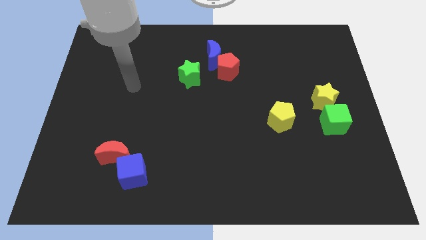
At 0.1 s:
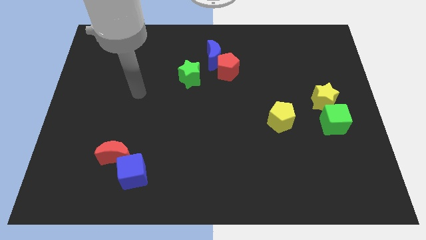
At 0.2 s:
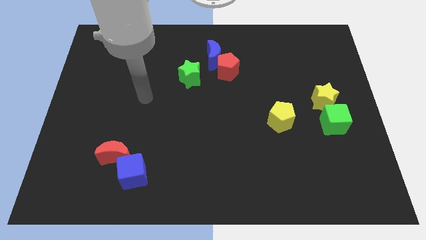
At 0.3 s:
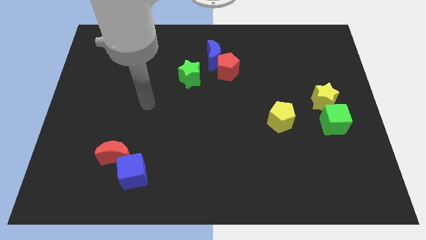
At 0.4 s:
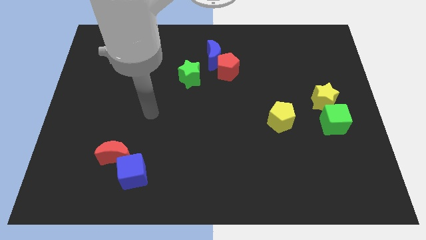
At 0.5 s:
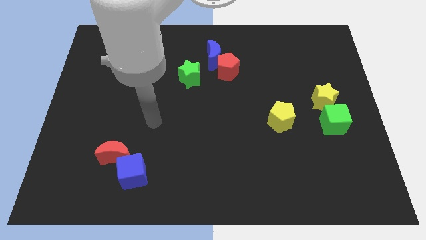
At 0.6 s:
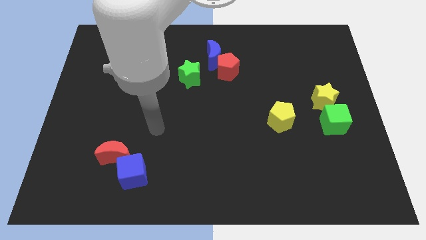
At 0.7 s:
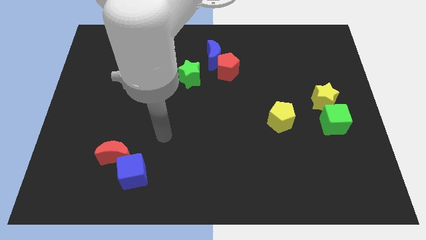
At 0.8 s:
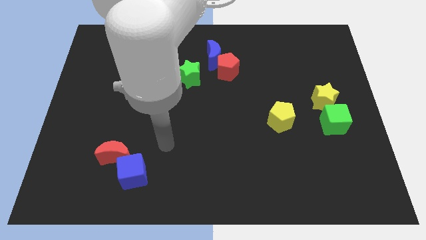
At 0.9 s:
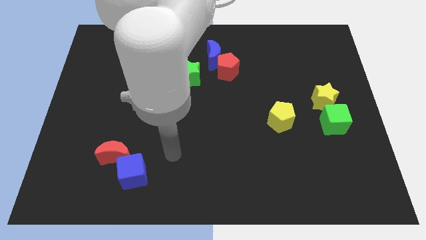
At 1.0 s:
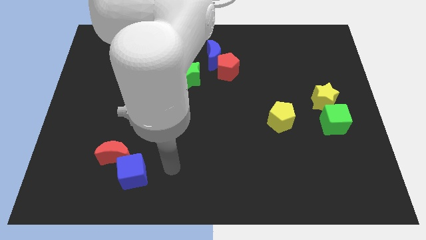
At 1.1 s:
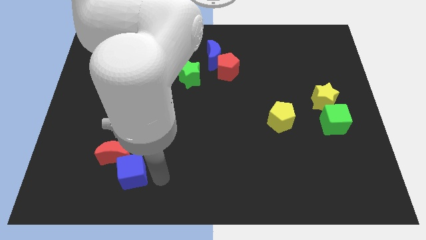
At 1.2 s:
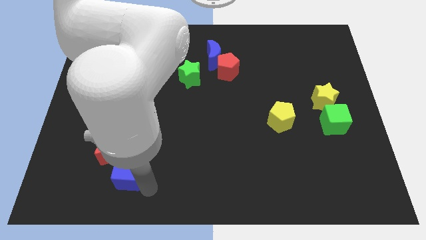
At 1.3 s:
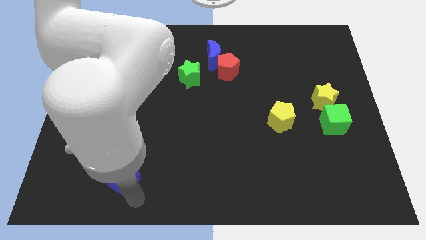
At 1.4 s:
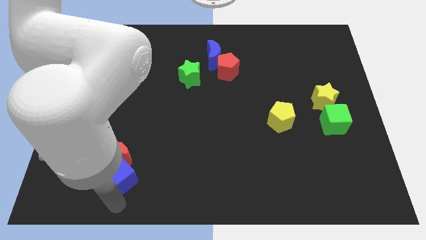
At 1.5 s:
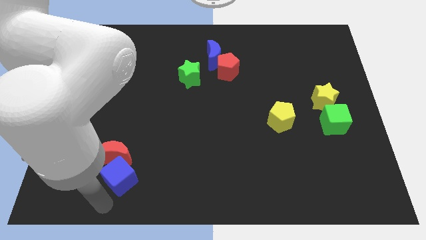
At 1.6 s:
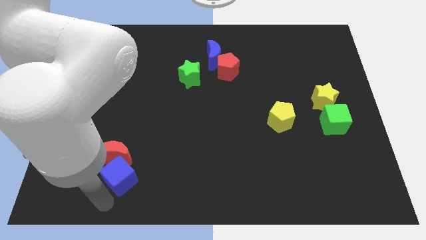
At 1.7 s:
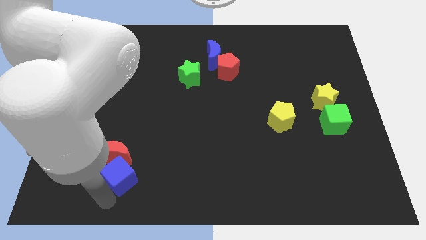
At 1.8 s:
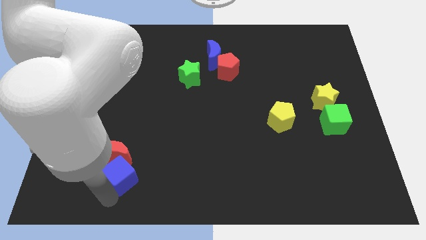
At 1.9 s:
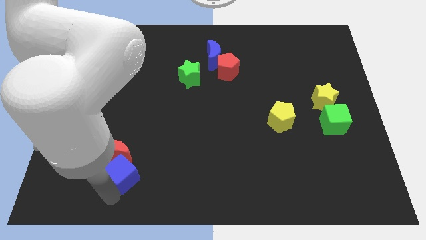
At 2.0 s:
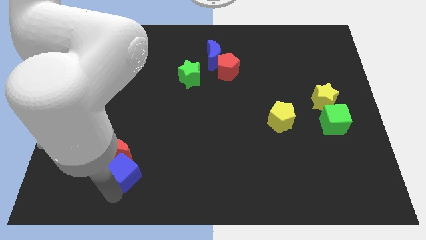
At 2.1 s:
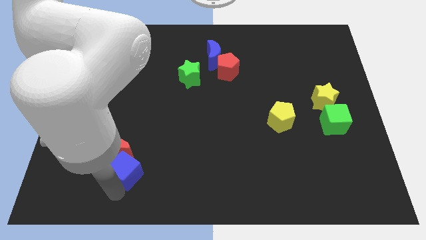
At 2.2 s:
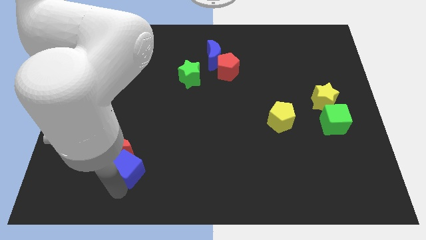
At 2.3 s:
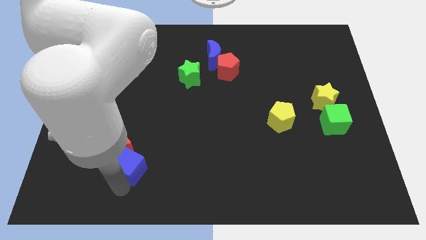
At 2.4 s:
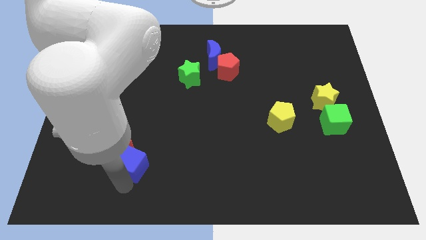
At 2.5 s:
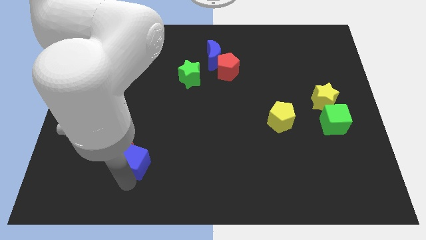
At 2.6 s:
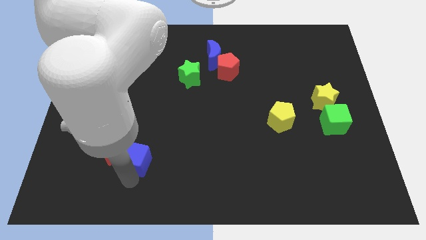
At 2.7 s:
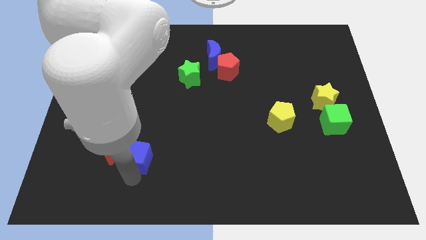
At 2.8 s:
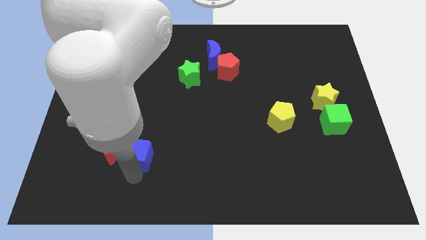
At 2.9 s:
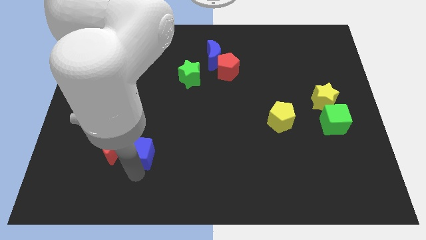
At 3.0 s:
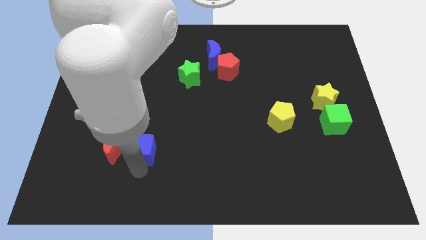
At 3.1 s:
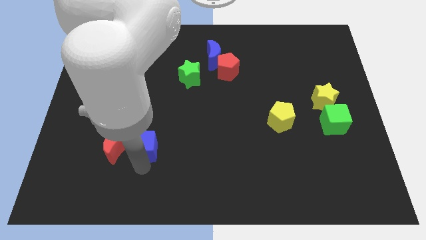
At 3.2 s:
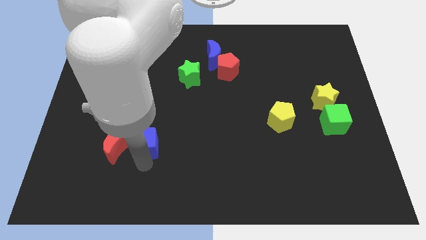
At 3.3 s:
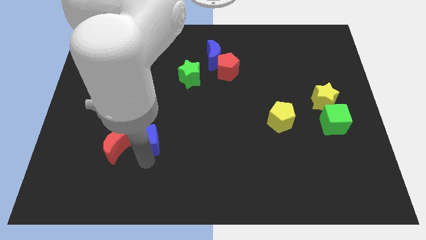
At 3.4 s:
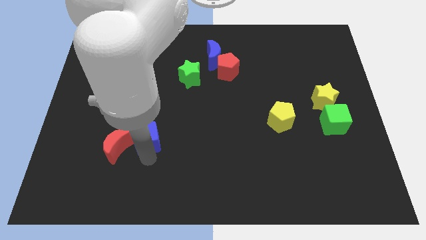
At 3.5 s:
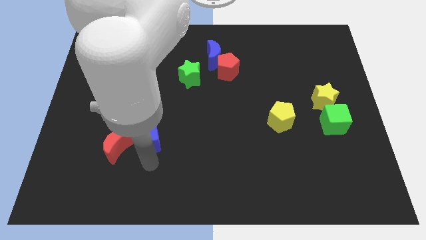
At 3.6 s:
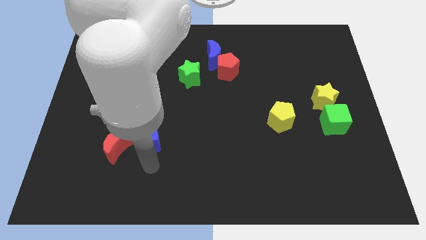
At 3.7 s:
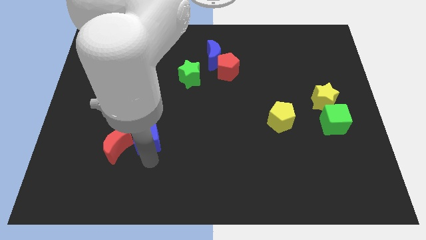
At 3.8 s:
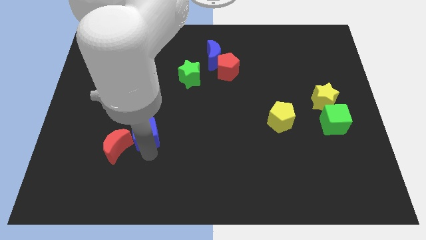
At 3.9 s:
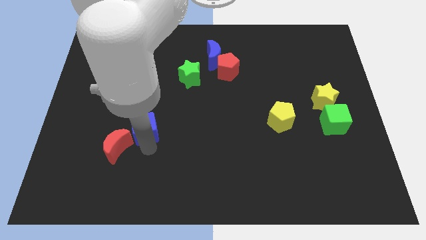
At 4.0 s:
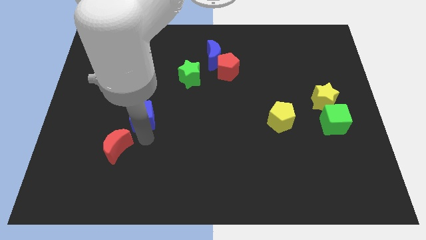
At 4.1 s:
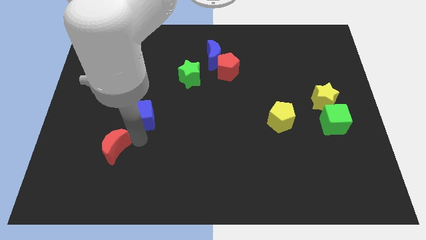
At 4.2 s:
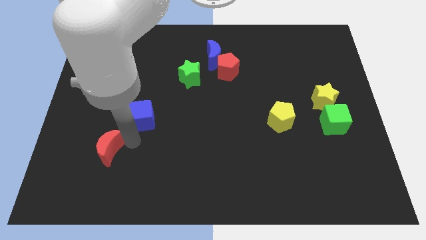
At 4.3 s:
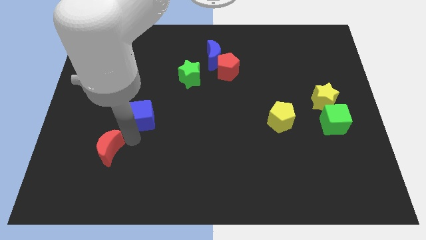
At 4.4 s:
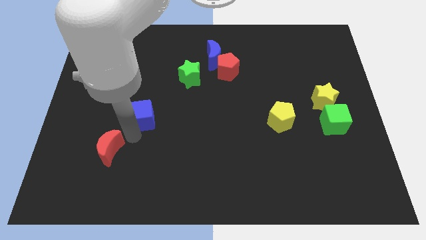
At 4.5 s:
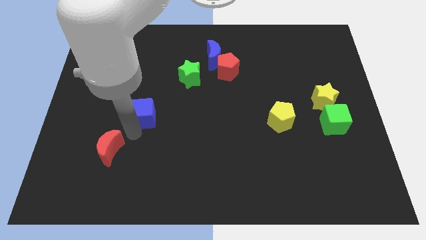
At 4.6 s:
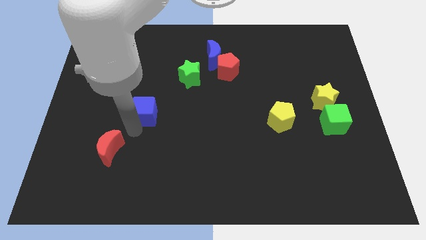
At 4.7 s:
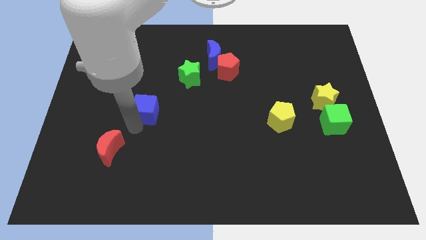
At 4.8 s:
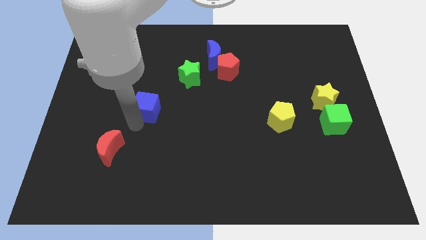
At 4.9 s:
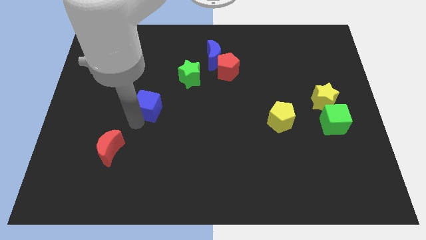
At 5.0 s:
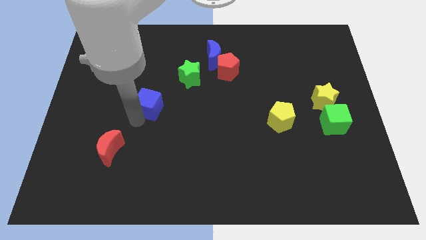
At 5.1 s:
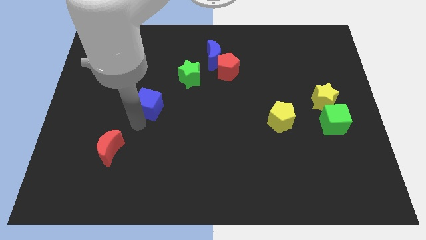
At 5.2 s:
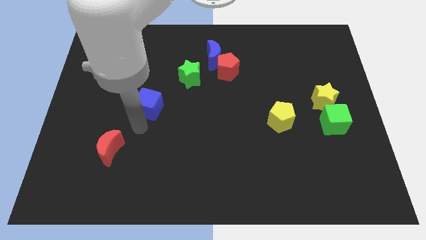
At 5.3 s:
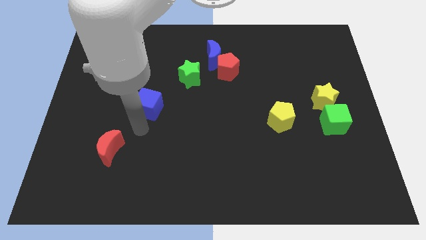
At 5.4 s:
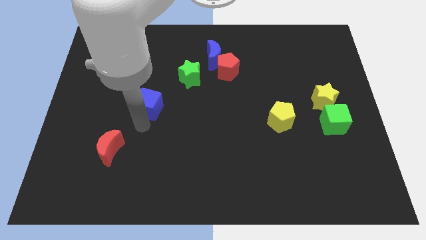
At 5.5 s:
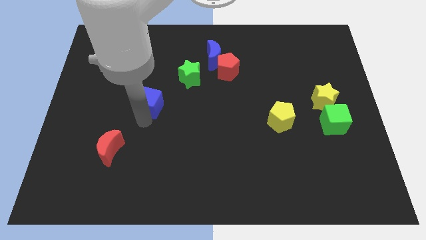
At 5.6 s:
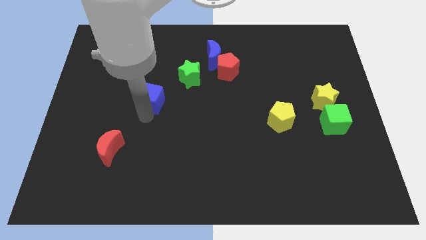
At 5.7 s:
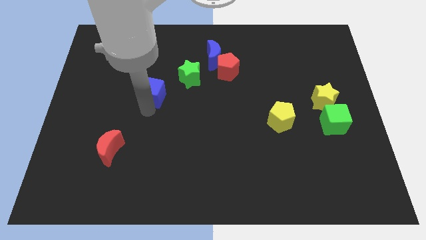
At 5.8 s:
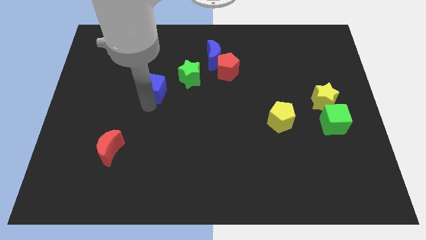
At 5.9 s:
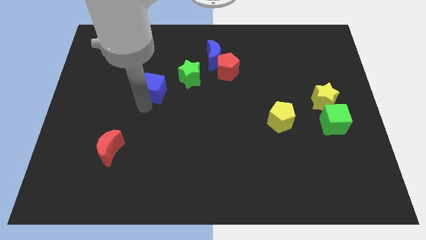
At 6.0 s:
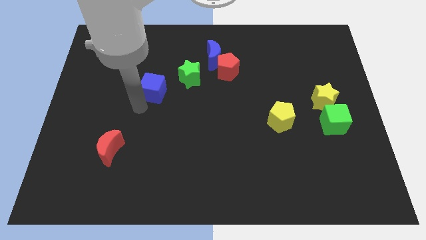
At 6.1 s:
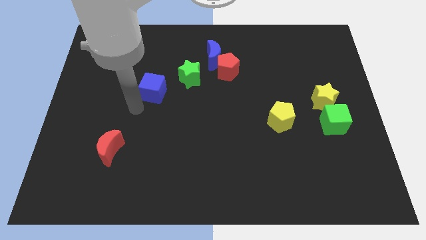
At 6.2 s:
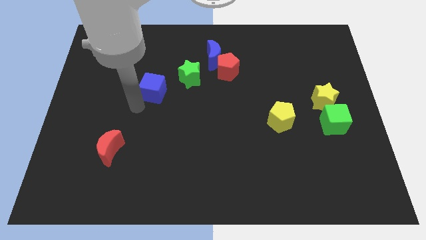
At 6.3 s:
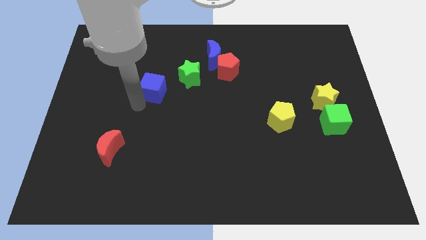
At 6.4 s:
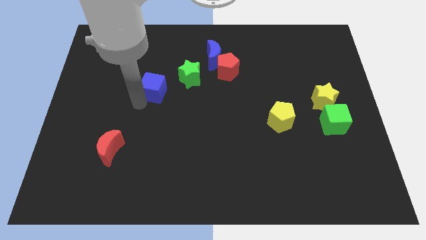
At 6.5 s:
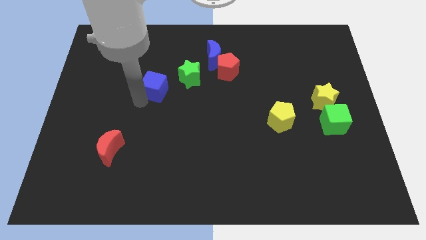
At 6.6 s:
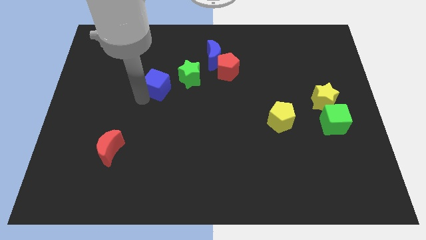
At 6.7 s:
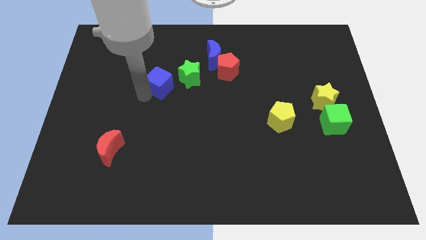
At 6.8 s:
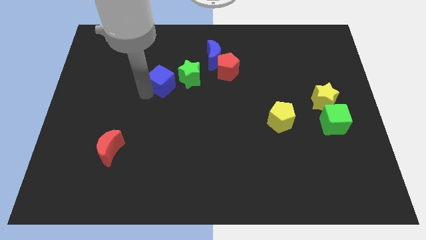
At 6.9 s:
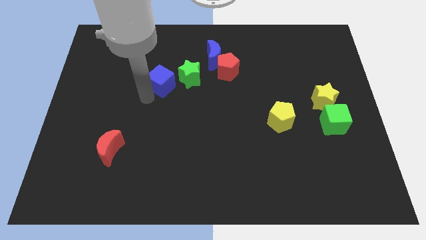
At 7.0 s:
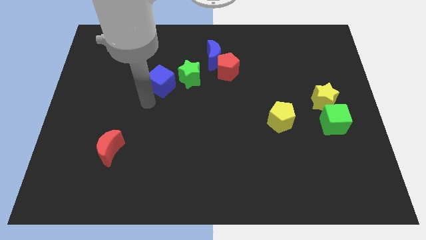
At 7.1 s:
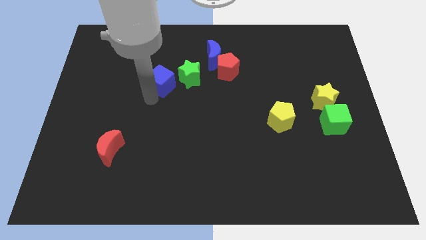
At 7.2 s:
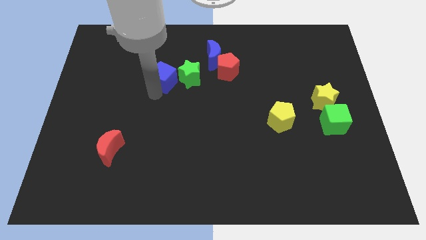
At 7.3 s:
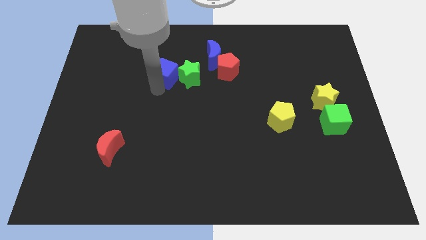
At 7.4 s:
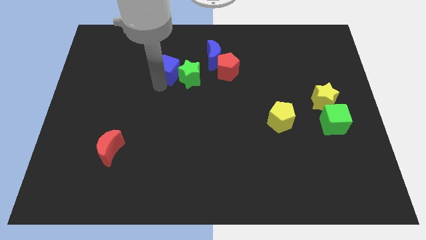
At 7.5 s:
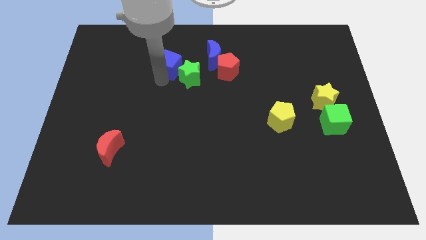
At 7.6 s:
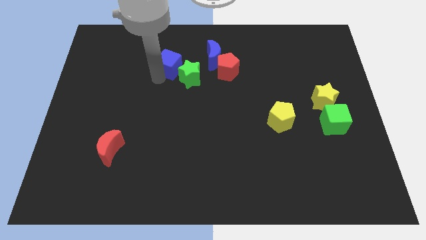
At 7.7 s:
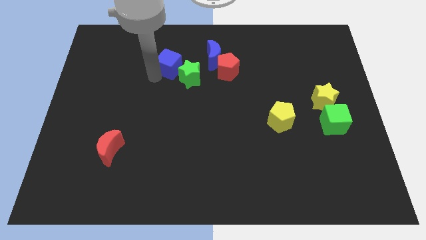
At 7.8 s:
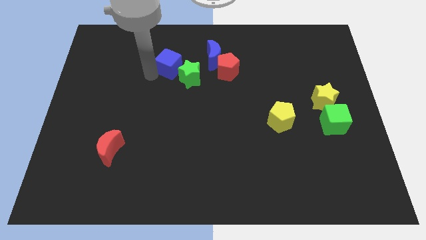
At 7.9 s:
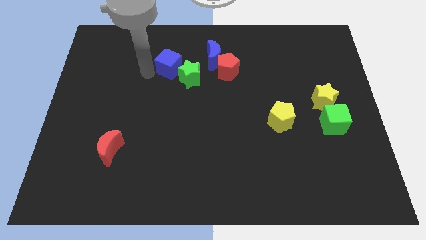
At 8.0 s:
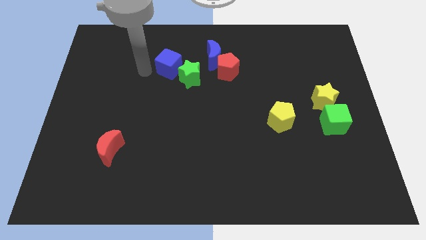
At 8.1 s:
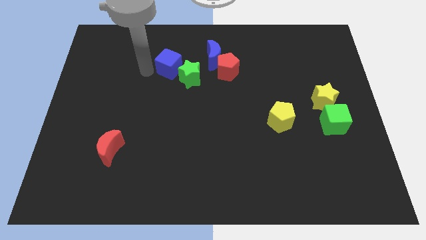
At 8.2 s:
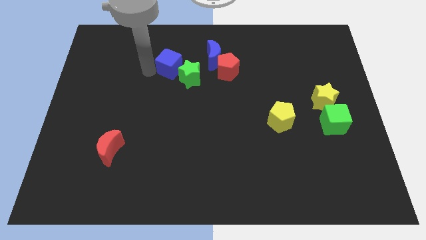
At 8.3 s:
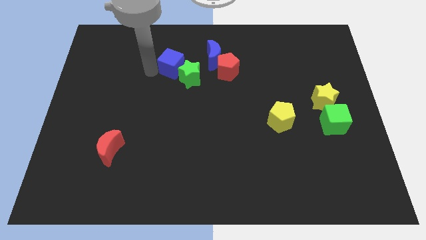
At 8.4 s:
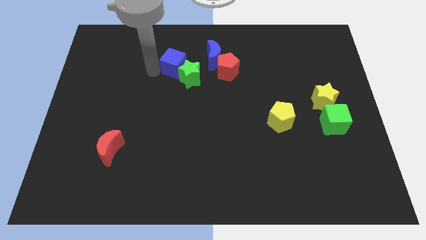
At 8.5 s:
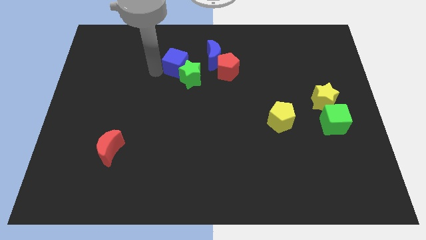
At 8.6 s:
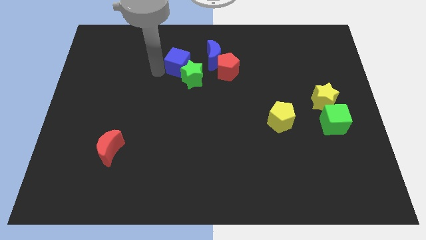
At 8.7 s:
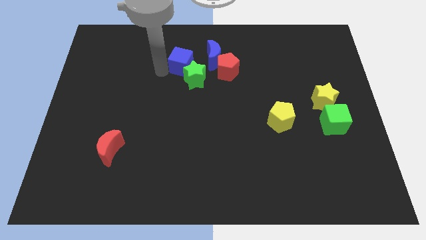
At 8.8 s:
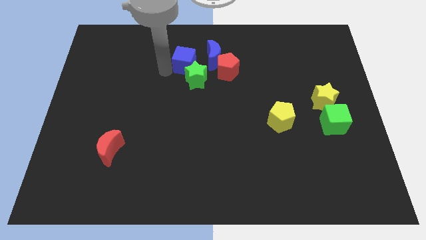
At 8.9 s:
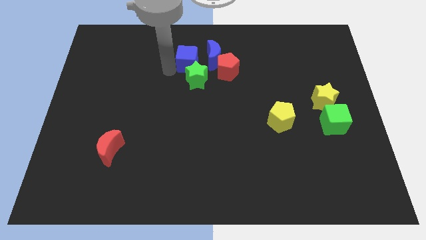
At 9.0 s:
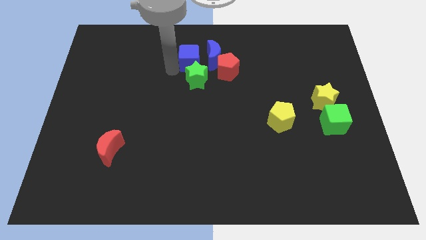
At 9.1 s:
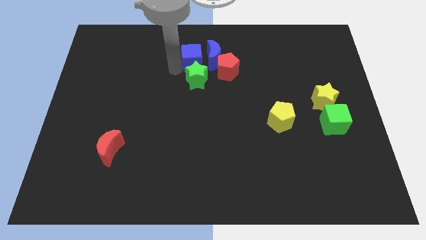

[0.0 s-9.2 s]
put the blue cube to the blue moon
